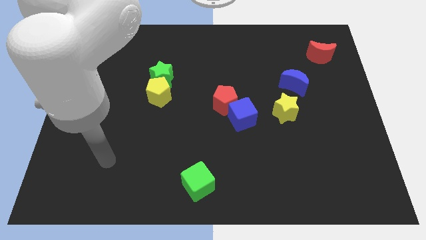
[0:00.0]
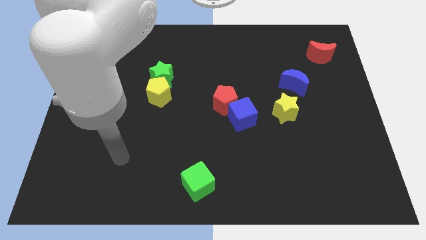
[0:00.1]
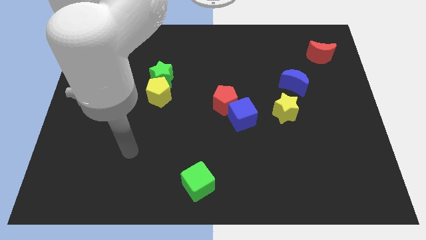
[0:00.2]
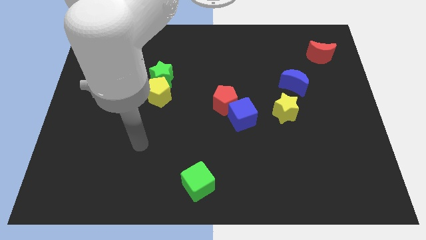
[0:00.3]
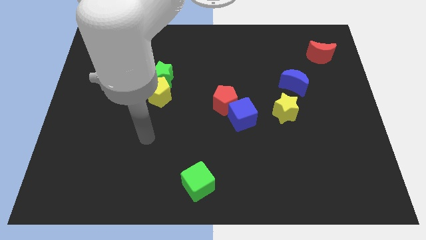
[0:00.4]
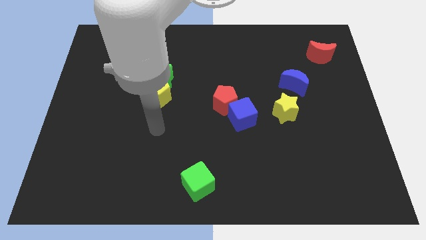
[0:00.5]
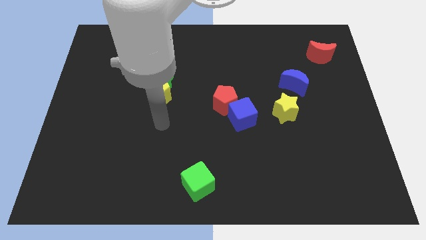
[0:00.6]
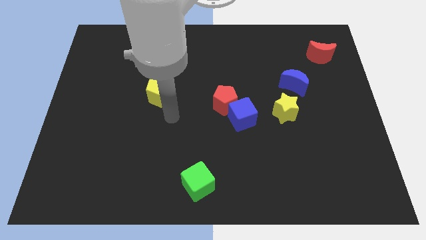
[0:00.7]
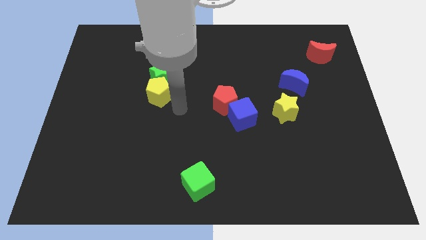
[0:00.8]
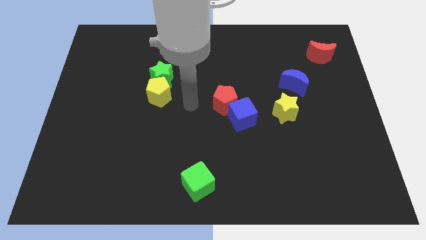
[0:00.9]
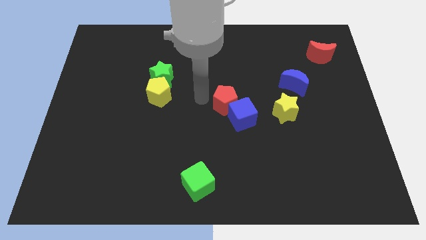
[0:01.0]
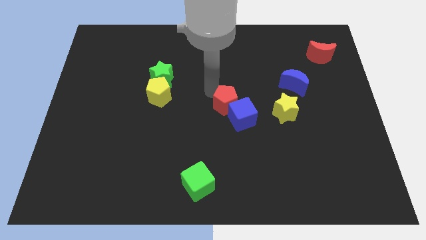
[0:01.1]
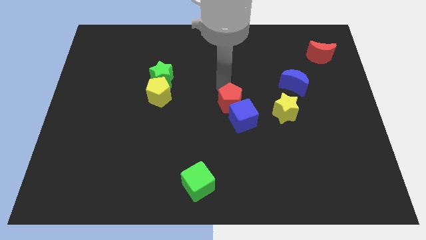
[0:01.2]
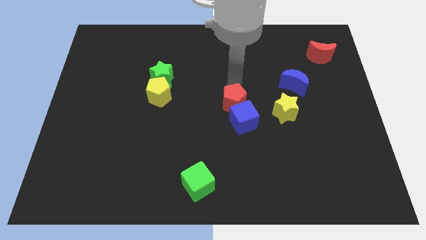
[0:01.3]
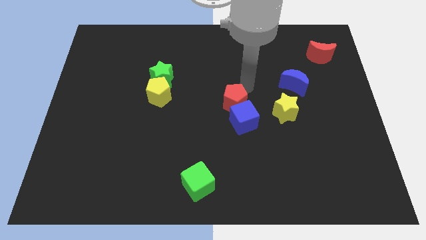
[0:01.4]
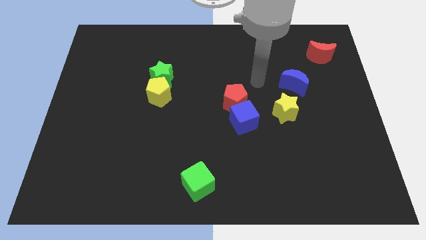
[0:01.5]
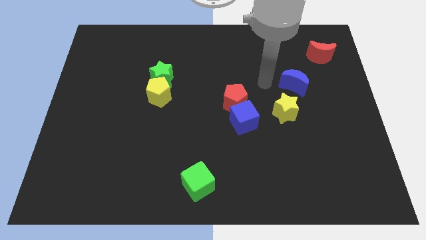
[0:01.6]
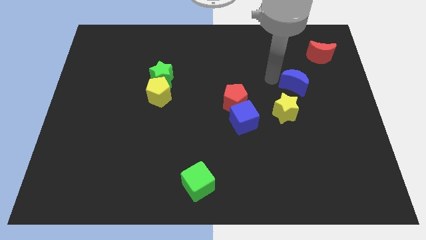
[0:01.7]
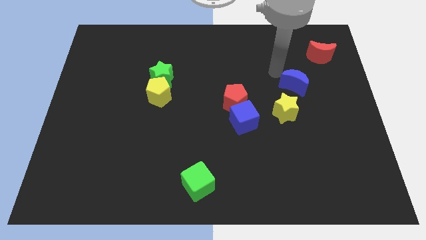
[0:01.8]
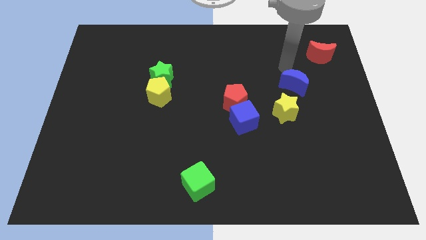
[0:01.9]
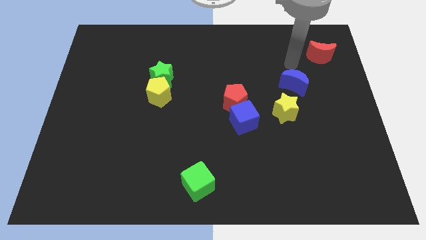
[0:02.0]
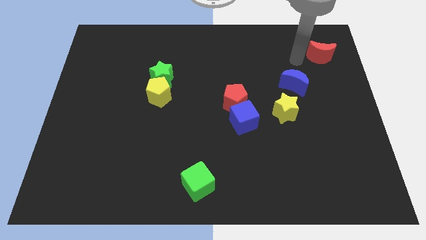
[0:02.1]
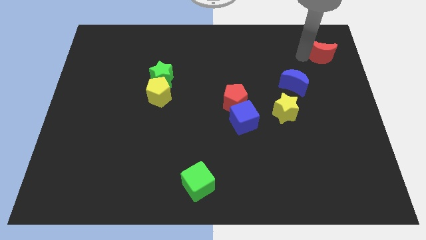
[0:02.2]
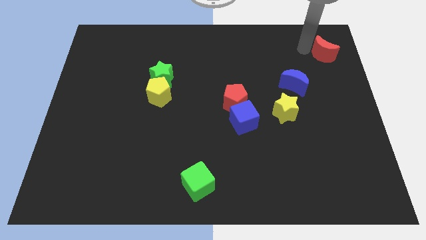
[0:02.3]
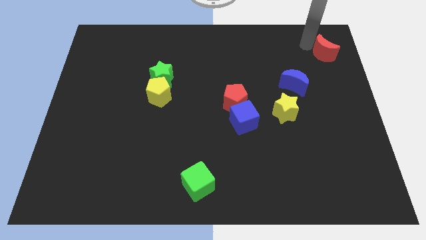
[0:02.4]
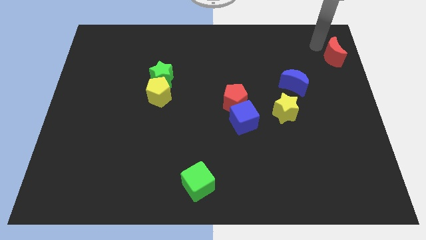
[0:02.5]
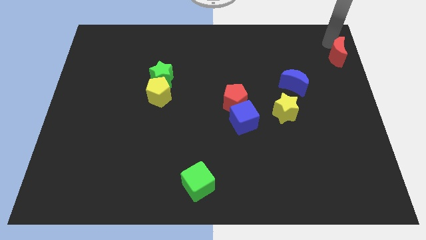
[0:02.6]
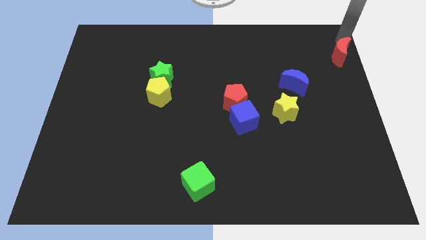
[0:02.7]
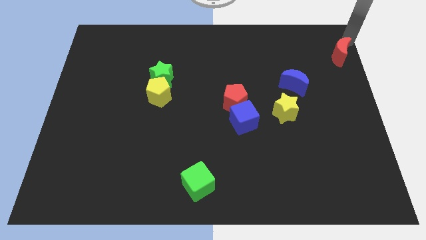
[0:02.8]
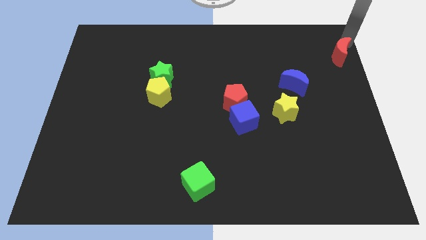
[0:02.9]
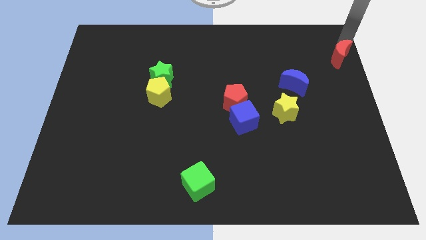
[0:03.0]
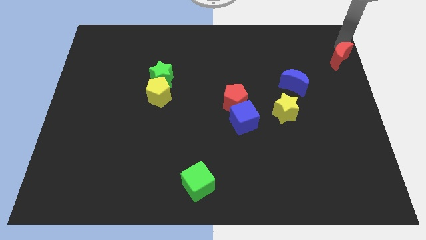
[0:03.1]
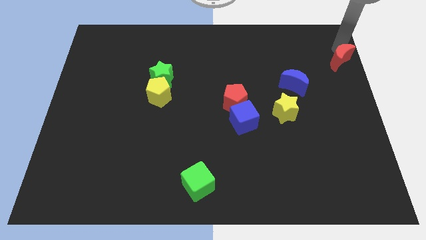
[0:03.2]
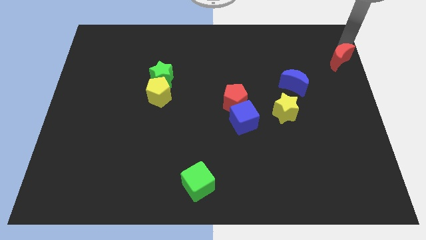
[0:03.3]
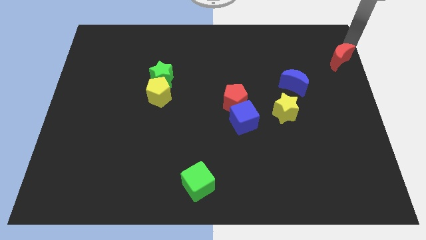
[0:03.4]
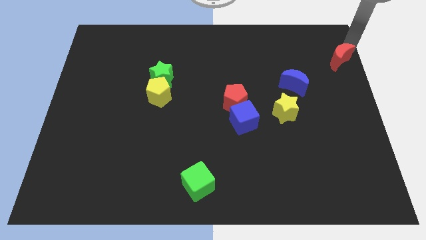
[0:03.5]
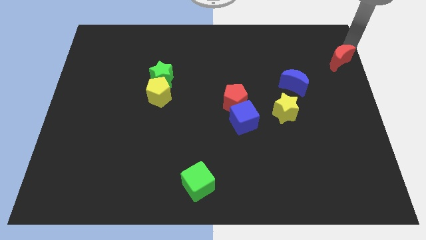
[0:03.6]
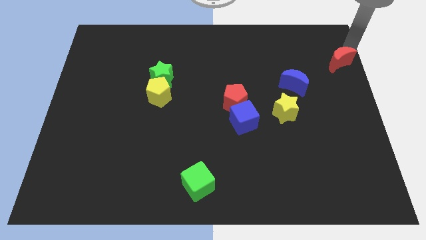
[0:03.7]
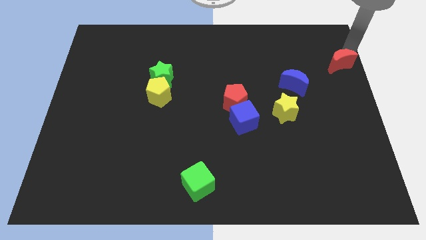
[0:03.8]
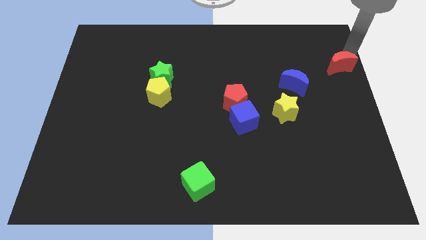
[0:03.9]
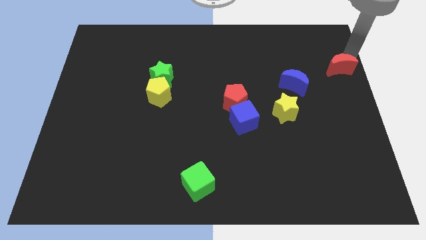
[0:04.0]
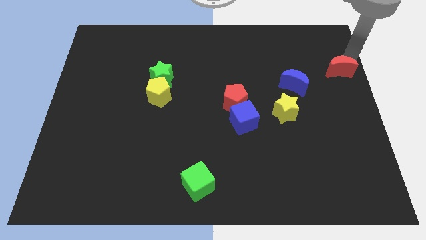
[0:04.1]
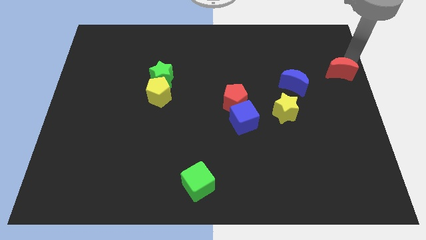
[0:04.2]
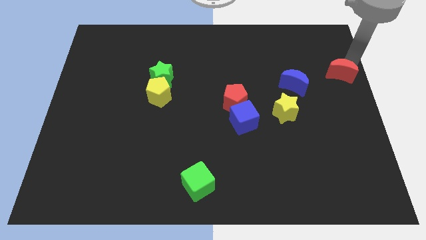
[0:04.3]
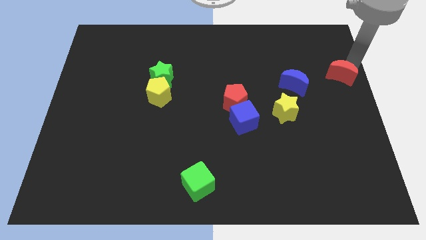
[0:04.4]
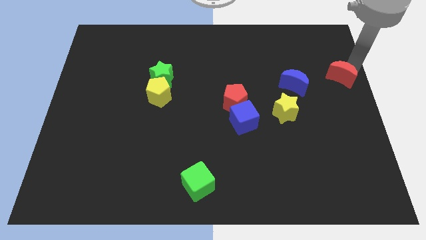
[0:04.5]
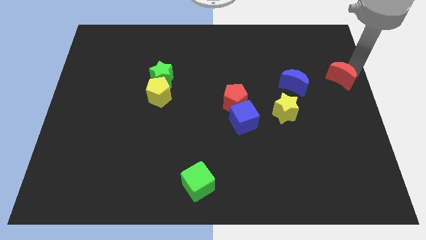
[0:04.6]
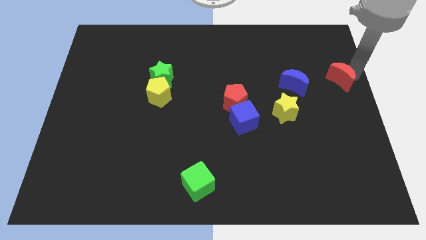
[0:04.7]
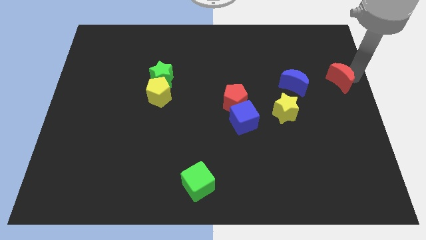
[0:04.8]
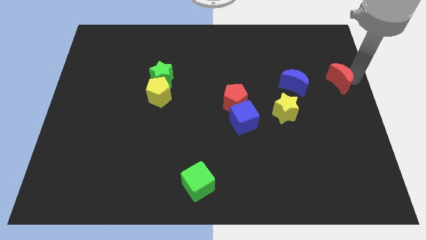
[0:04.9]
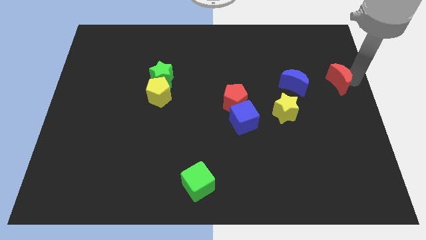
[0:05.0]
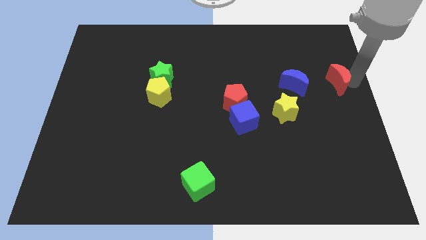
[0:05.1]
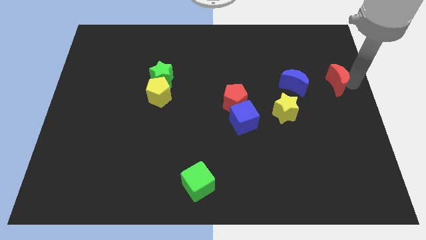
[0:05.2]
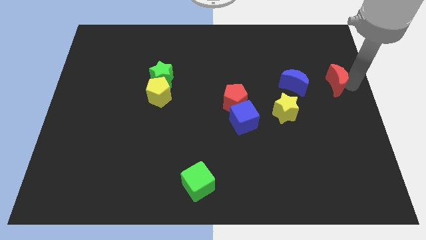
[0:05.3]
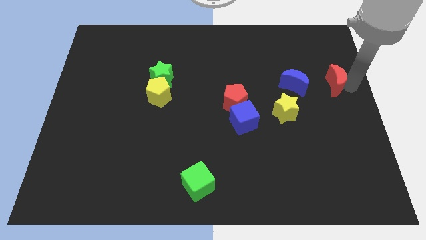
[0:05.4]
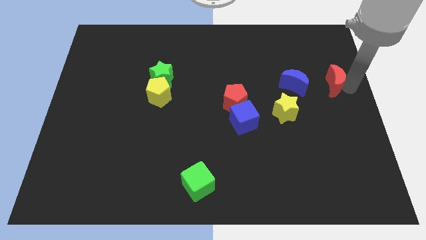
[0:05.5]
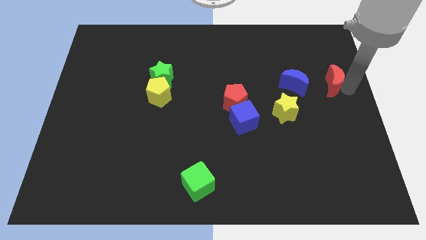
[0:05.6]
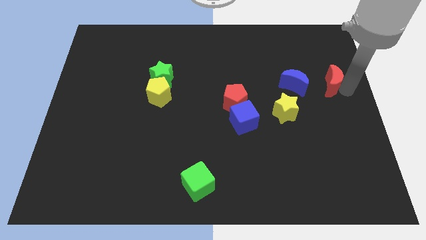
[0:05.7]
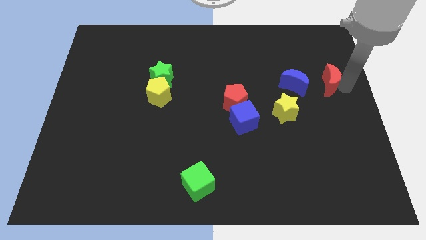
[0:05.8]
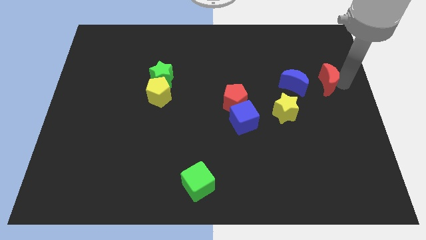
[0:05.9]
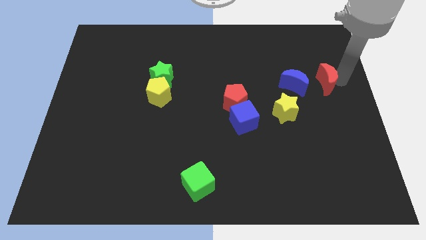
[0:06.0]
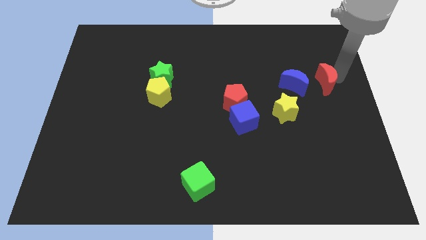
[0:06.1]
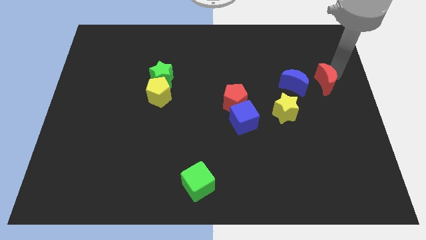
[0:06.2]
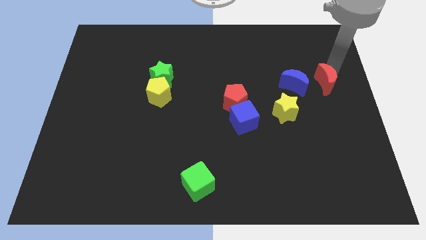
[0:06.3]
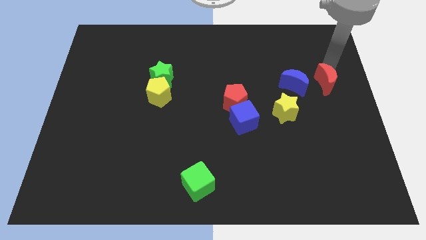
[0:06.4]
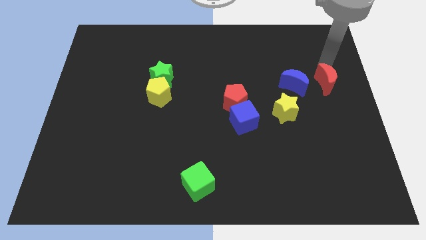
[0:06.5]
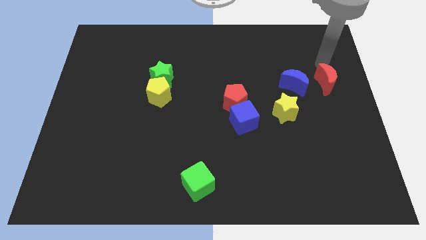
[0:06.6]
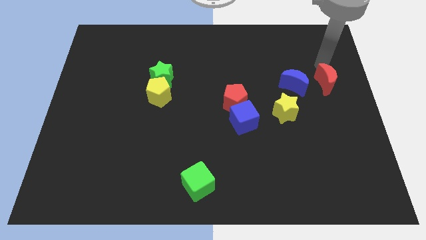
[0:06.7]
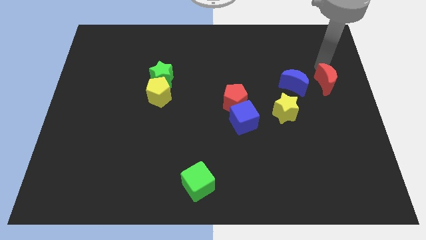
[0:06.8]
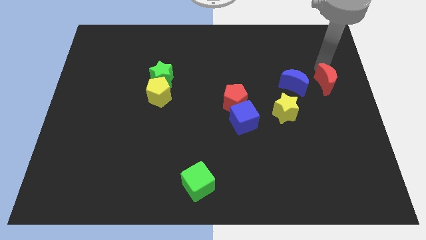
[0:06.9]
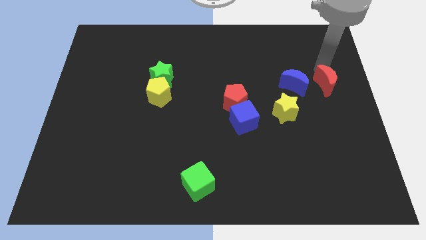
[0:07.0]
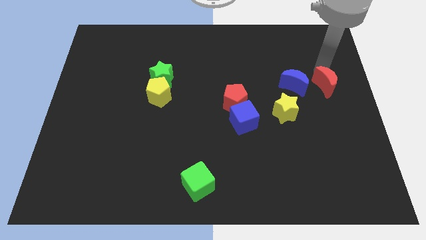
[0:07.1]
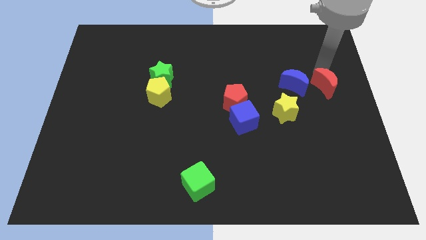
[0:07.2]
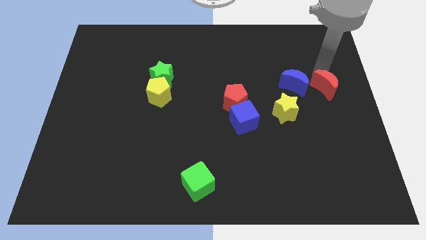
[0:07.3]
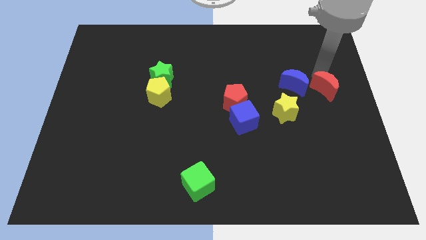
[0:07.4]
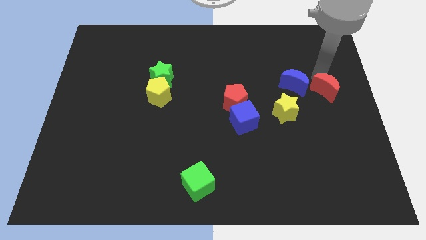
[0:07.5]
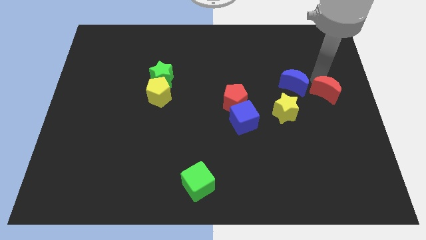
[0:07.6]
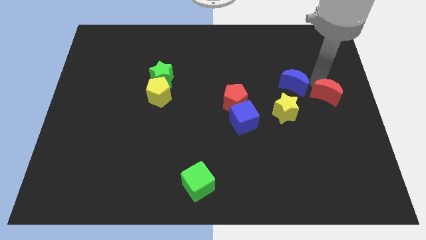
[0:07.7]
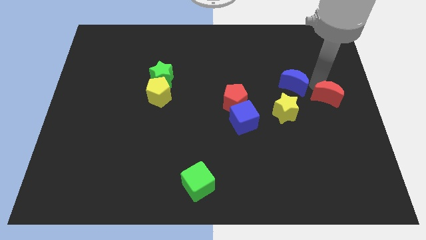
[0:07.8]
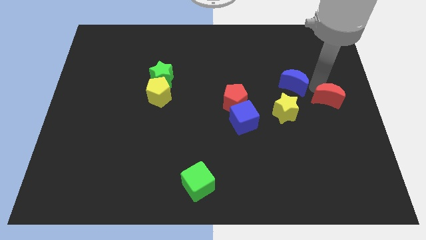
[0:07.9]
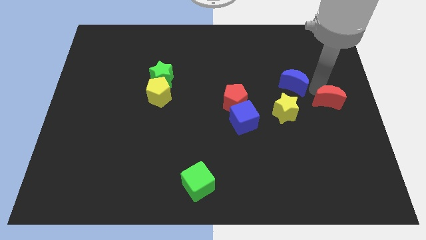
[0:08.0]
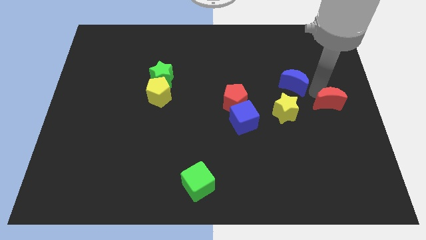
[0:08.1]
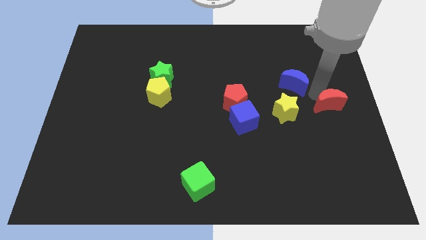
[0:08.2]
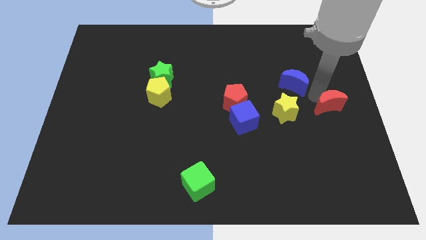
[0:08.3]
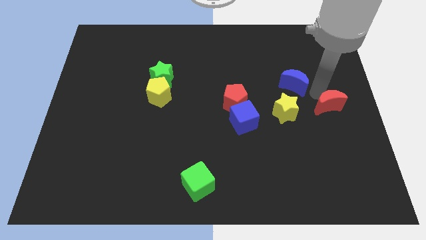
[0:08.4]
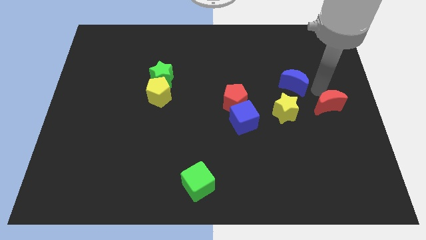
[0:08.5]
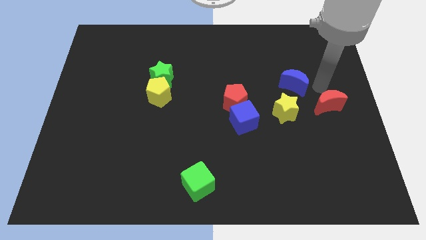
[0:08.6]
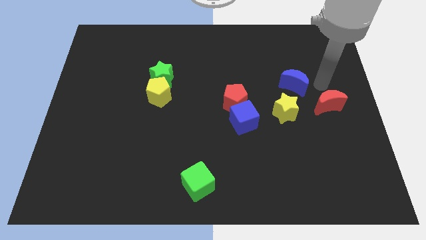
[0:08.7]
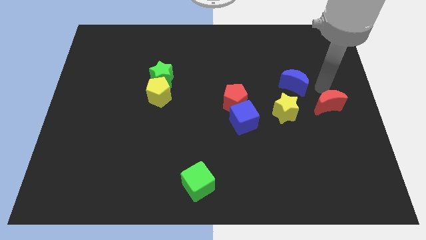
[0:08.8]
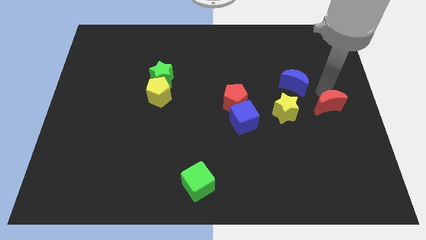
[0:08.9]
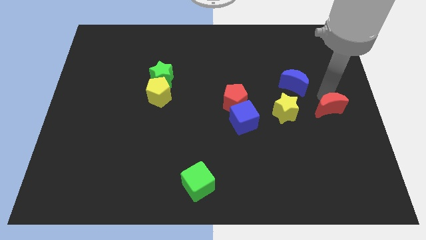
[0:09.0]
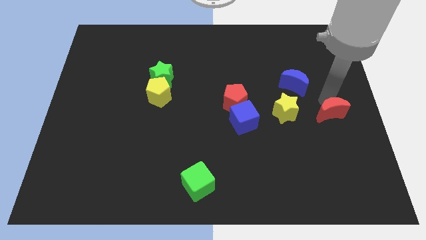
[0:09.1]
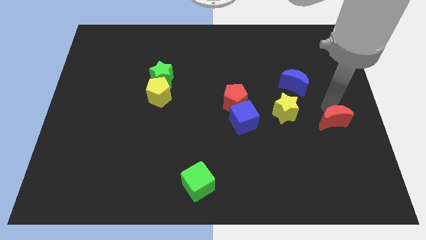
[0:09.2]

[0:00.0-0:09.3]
move the red moon downwards
